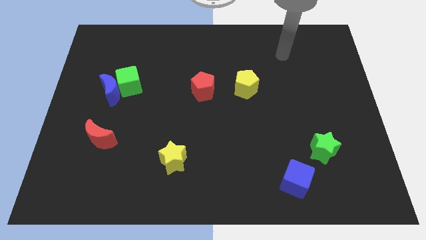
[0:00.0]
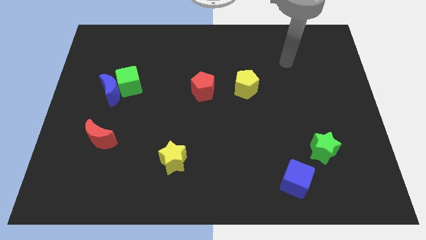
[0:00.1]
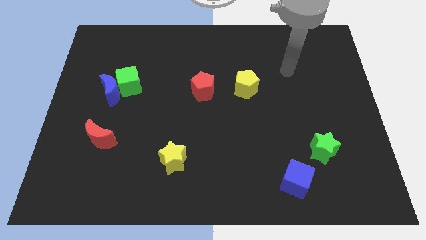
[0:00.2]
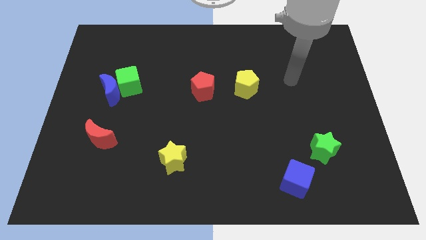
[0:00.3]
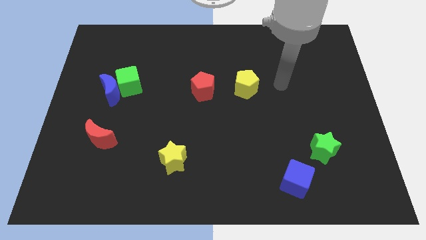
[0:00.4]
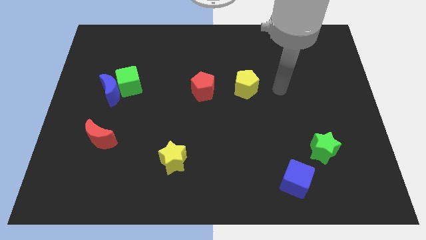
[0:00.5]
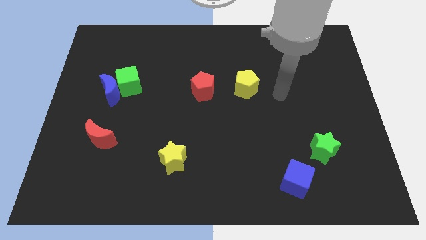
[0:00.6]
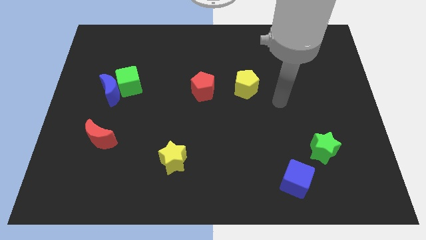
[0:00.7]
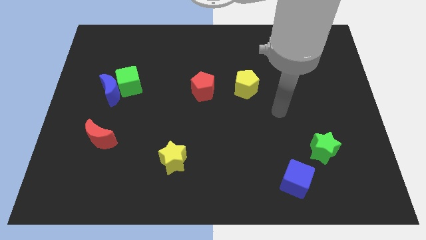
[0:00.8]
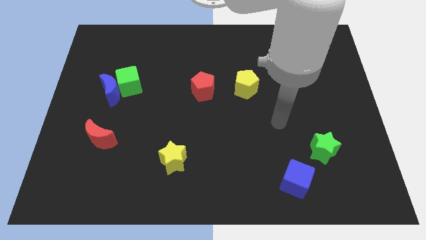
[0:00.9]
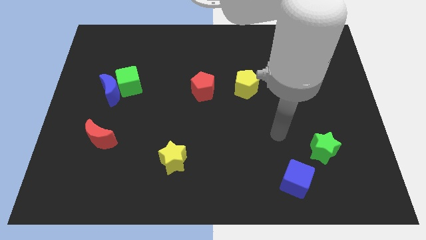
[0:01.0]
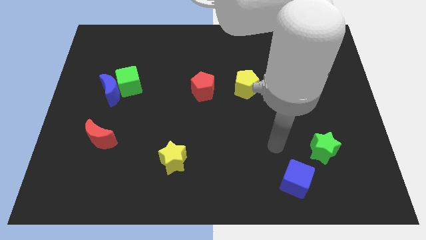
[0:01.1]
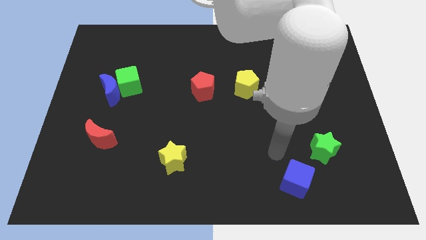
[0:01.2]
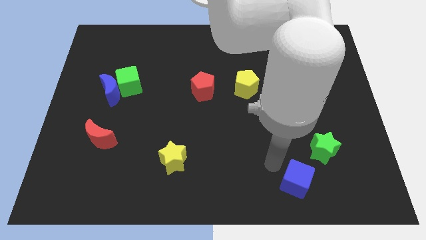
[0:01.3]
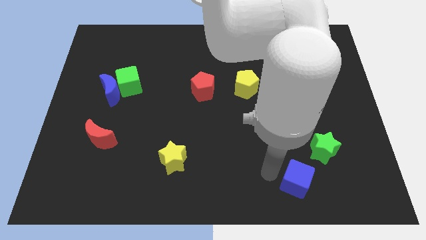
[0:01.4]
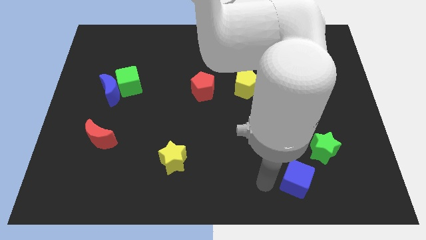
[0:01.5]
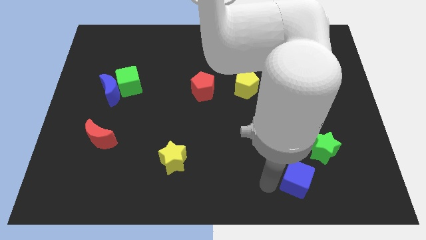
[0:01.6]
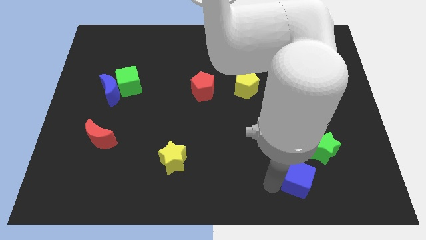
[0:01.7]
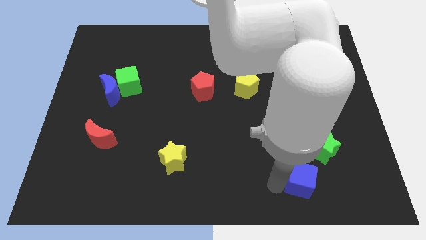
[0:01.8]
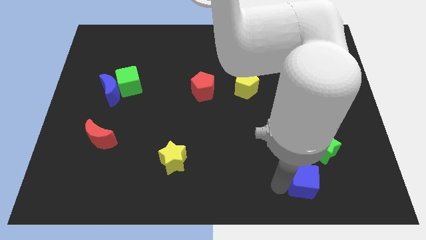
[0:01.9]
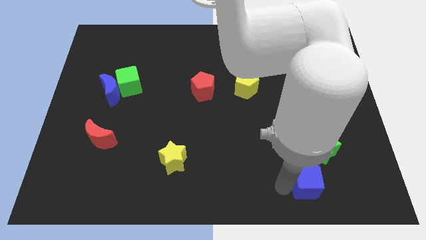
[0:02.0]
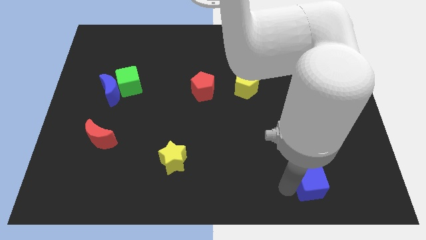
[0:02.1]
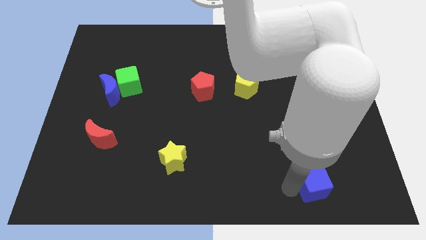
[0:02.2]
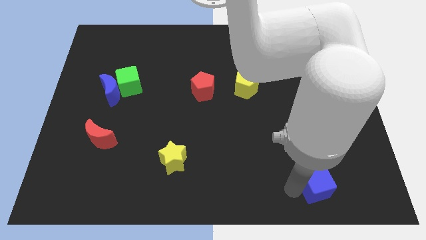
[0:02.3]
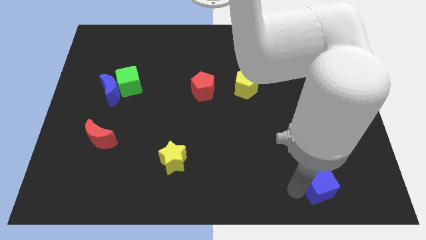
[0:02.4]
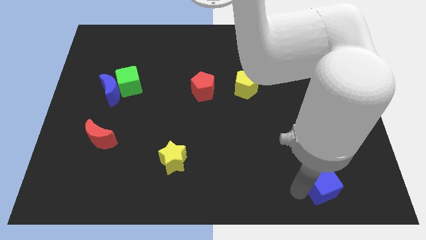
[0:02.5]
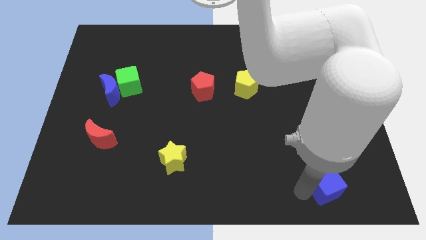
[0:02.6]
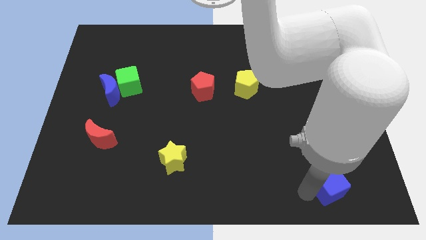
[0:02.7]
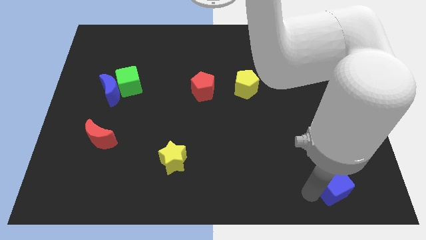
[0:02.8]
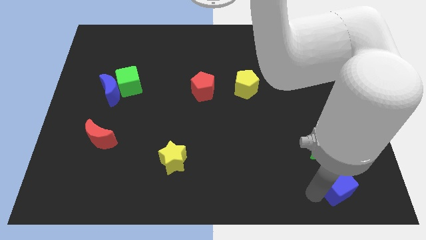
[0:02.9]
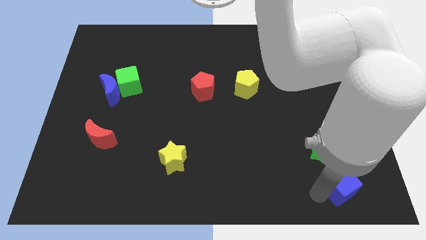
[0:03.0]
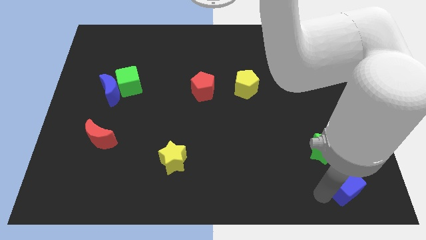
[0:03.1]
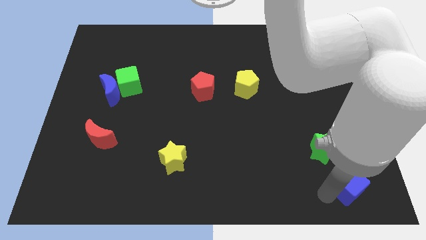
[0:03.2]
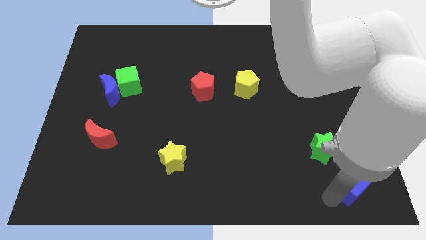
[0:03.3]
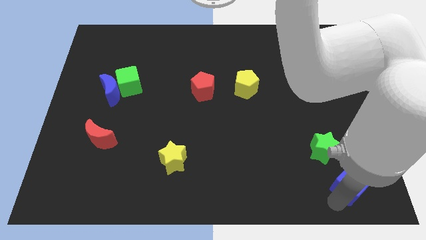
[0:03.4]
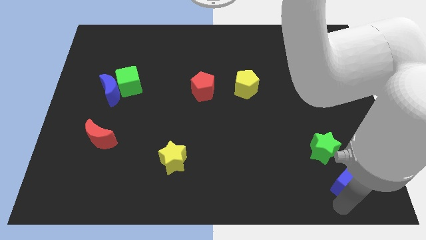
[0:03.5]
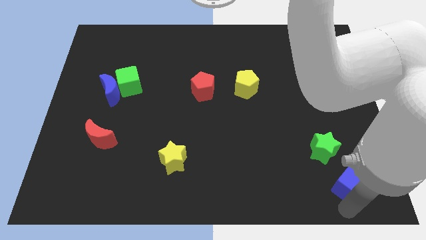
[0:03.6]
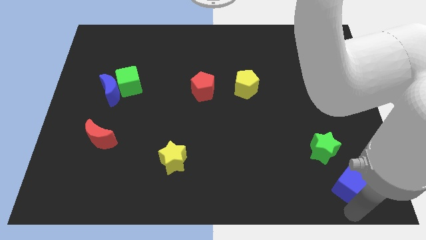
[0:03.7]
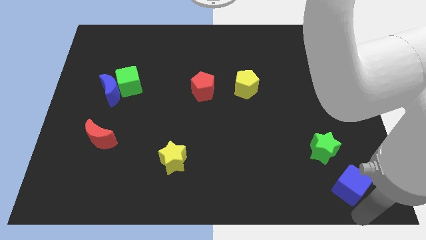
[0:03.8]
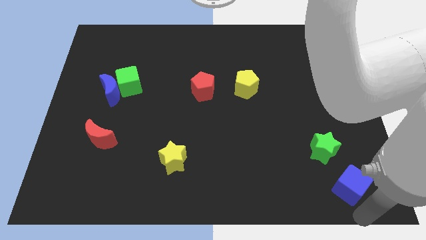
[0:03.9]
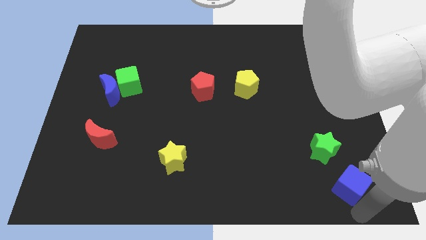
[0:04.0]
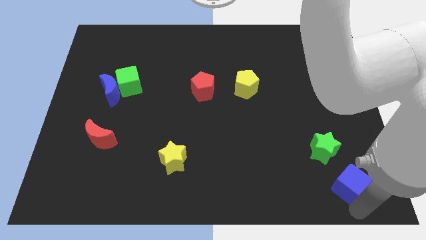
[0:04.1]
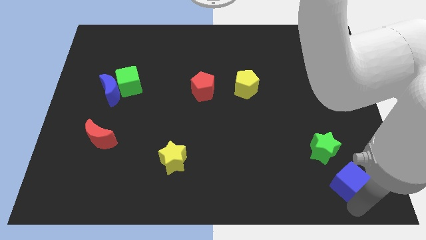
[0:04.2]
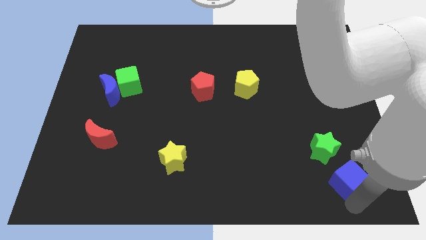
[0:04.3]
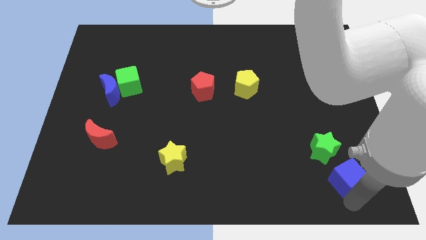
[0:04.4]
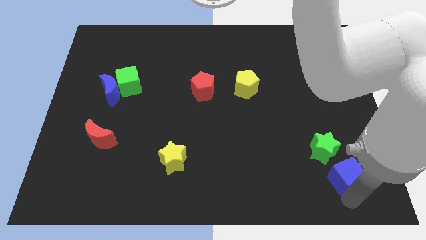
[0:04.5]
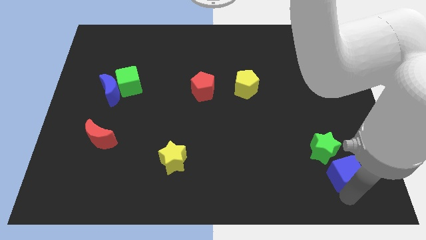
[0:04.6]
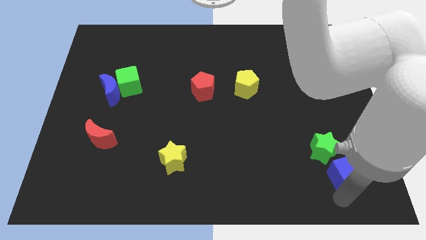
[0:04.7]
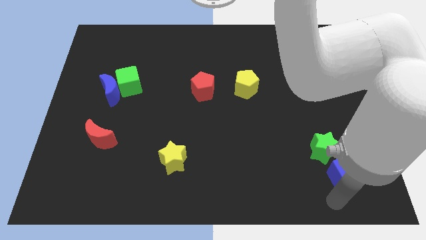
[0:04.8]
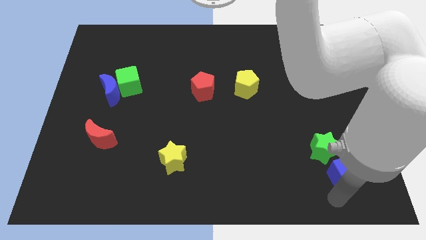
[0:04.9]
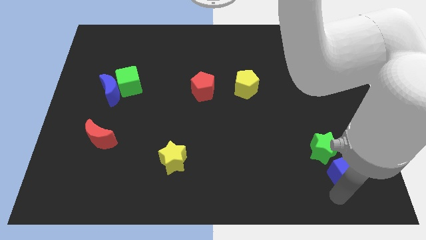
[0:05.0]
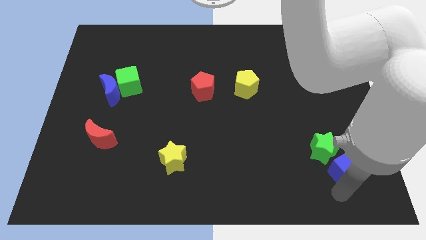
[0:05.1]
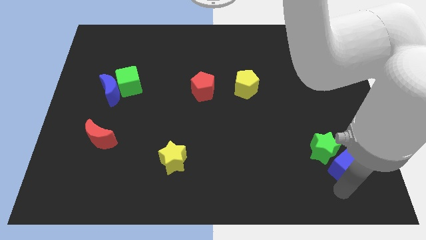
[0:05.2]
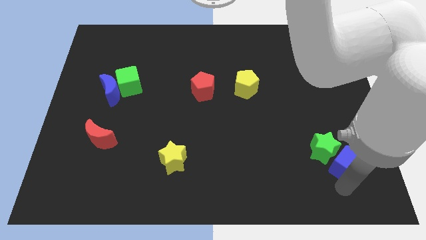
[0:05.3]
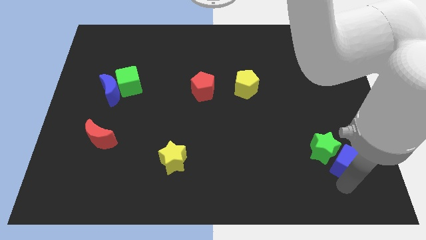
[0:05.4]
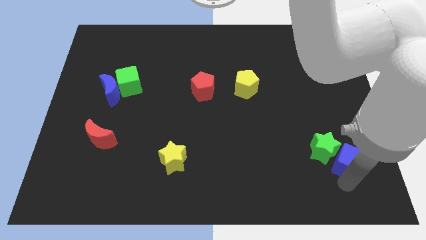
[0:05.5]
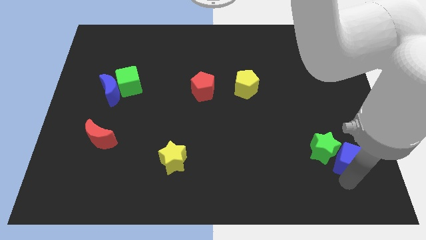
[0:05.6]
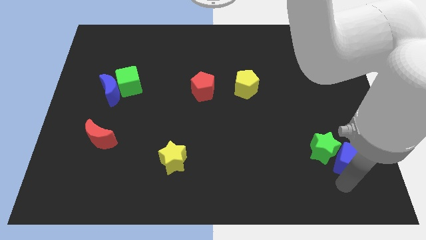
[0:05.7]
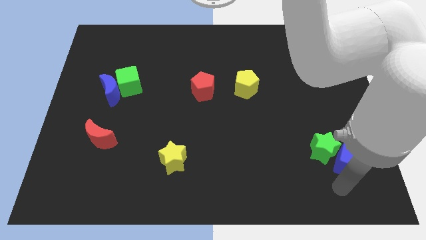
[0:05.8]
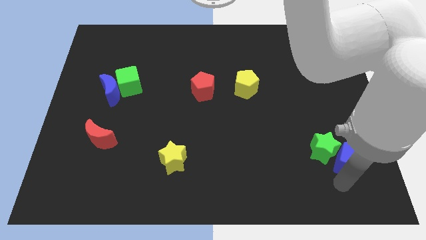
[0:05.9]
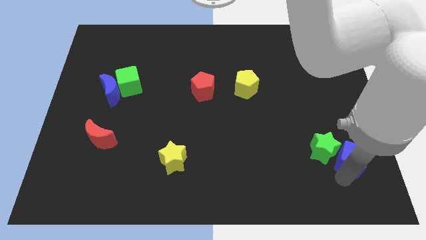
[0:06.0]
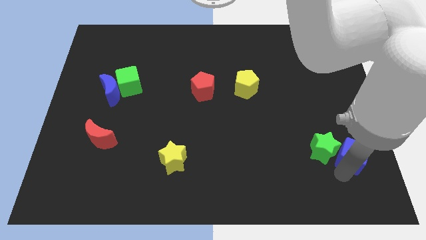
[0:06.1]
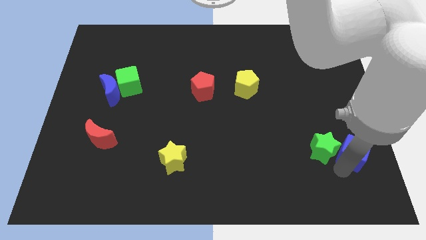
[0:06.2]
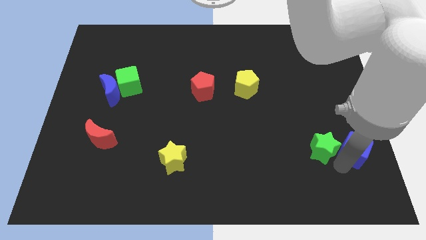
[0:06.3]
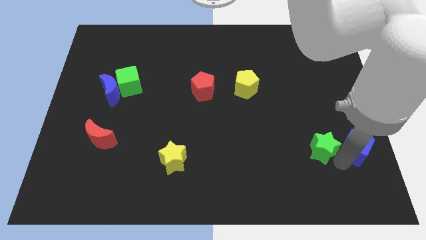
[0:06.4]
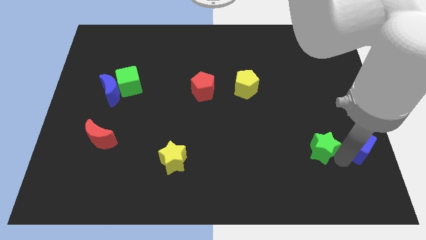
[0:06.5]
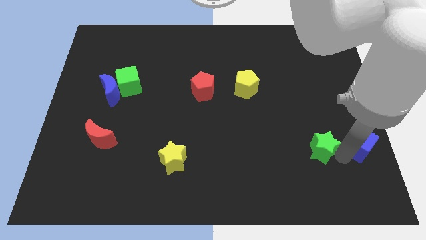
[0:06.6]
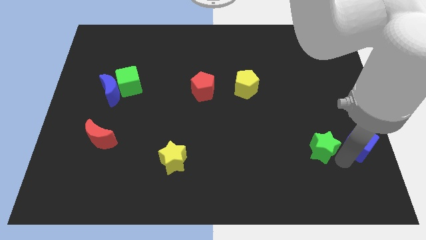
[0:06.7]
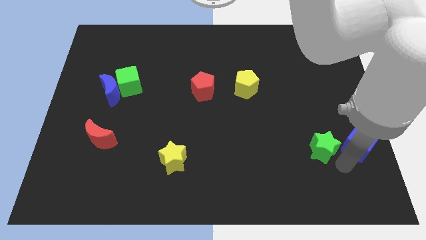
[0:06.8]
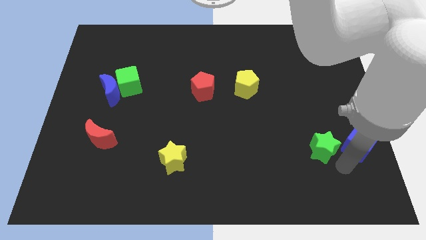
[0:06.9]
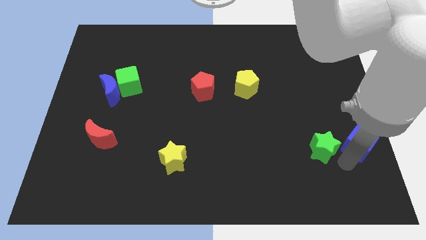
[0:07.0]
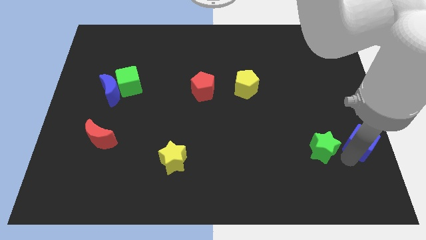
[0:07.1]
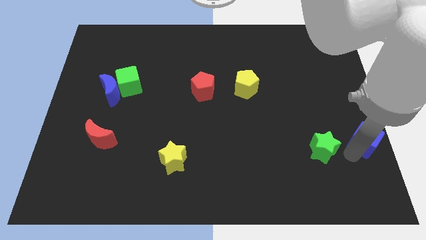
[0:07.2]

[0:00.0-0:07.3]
push the blue cube to the right side of the board

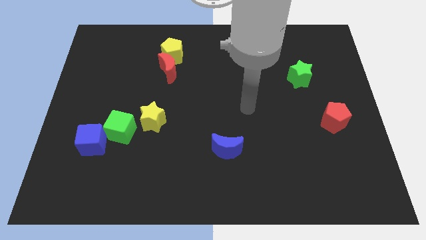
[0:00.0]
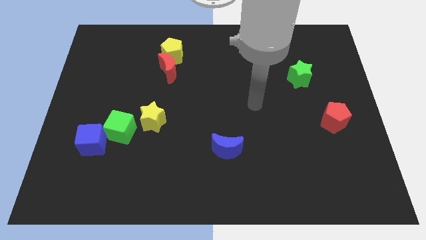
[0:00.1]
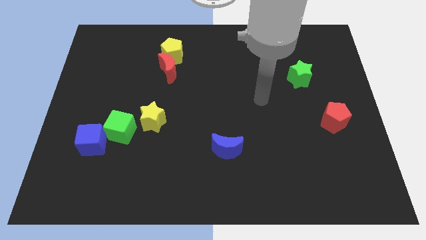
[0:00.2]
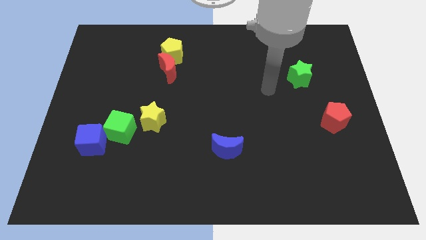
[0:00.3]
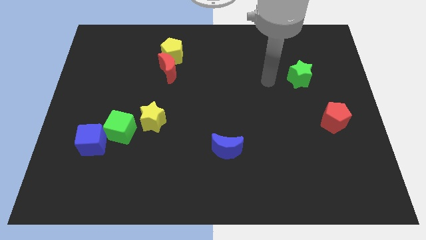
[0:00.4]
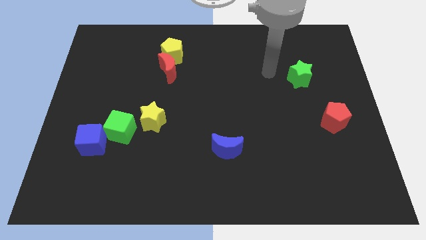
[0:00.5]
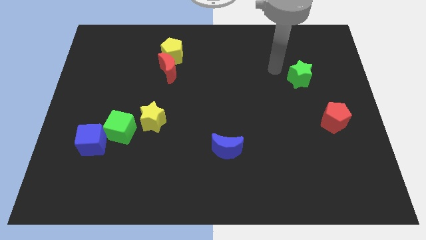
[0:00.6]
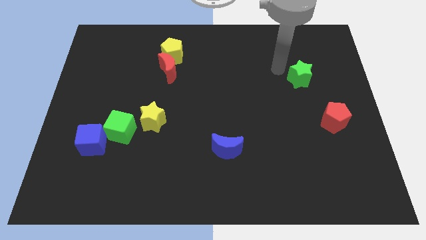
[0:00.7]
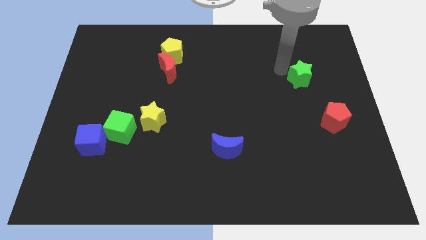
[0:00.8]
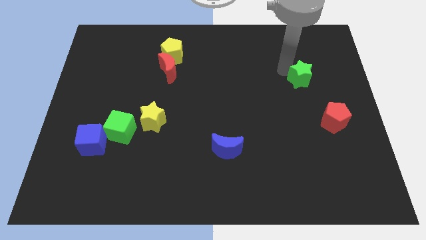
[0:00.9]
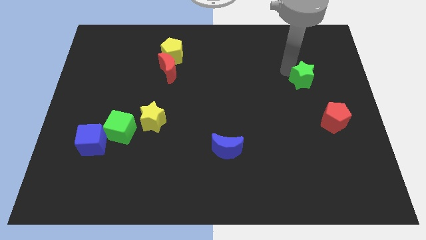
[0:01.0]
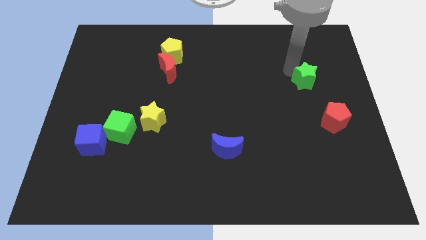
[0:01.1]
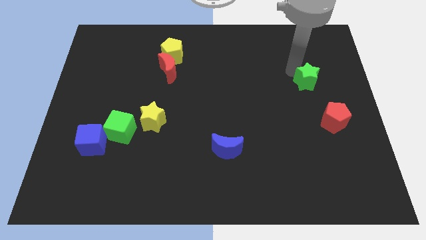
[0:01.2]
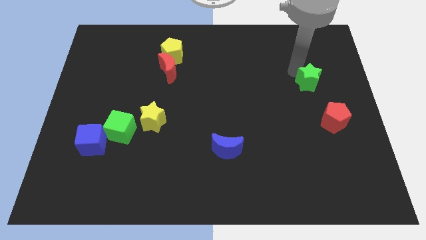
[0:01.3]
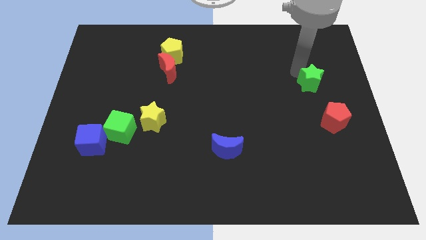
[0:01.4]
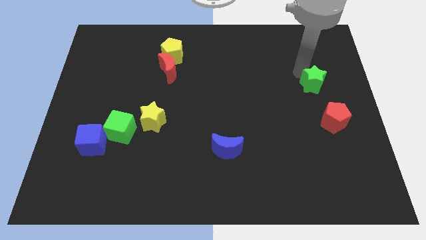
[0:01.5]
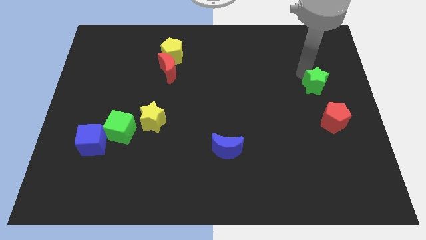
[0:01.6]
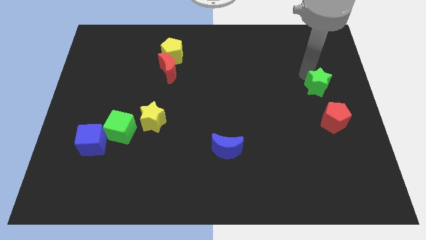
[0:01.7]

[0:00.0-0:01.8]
put the green star to the center right
